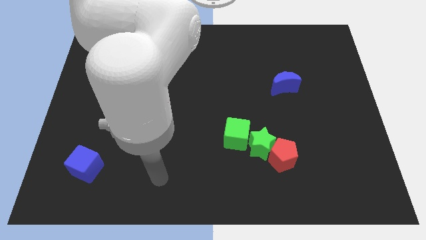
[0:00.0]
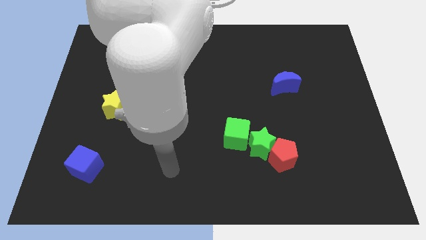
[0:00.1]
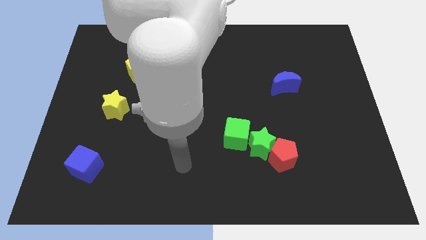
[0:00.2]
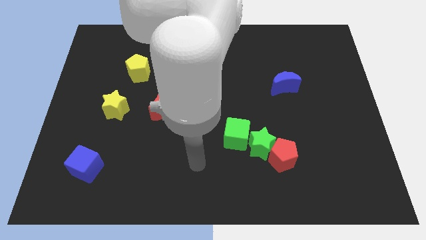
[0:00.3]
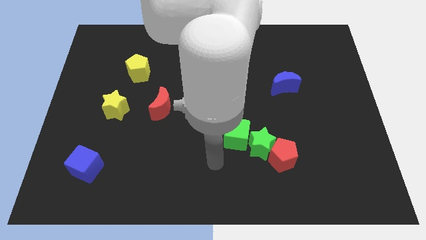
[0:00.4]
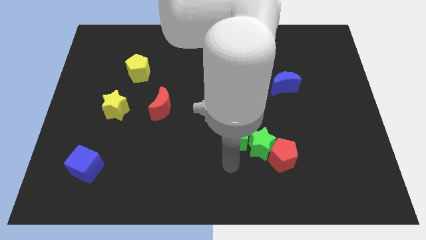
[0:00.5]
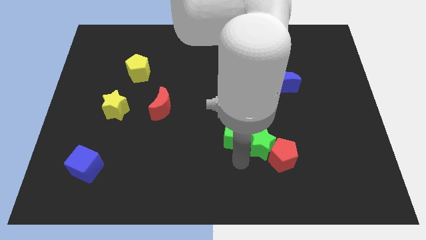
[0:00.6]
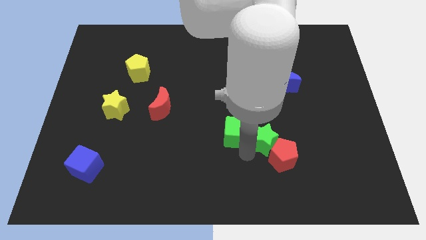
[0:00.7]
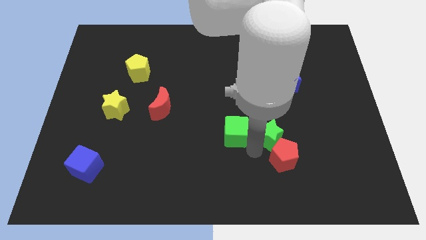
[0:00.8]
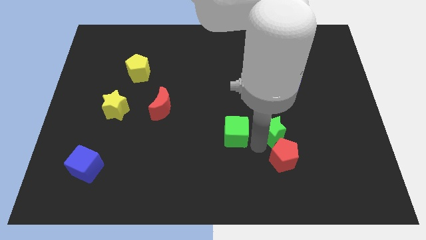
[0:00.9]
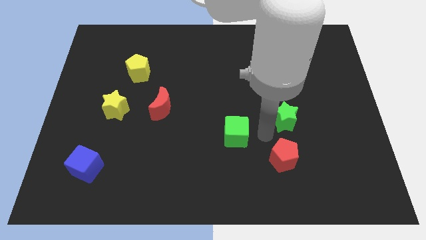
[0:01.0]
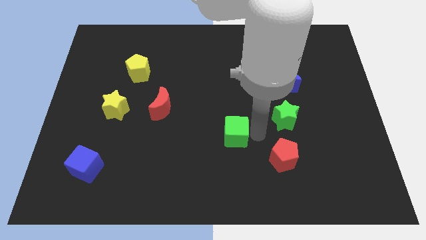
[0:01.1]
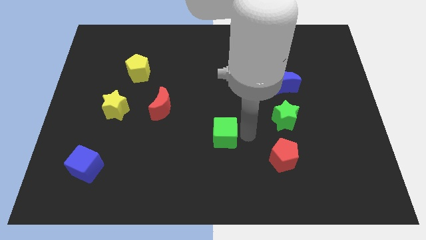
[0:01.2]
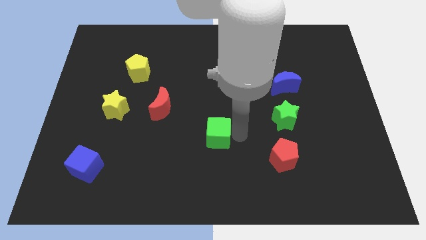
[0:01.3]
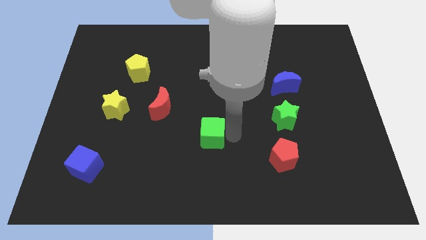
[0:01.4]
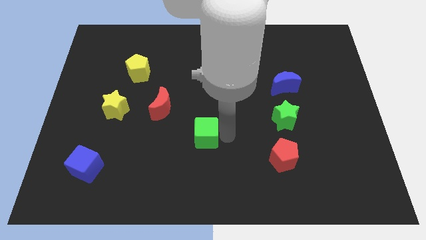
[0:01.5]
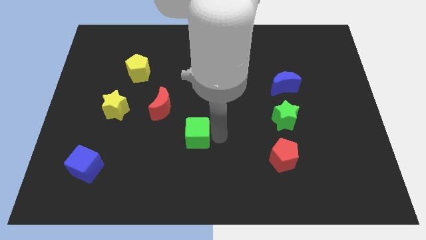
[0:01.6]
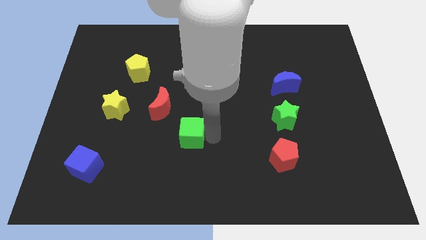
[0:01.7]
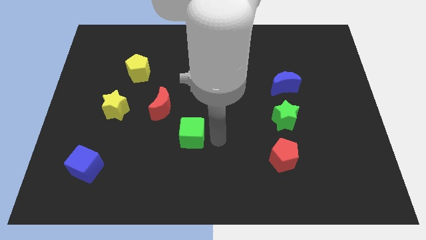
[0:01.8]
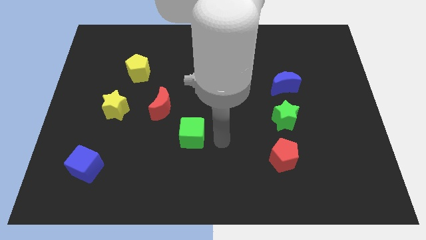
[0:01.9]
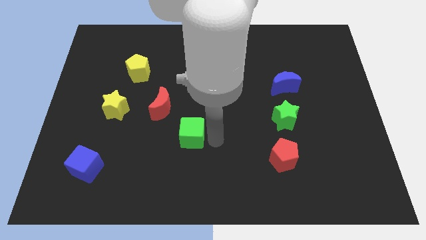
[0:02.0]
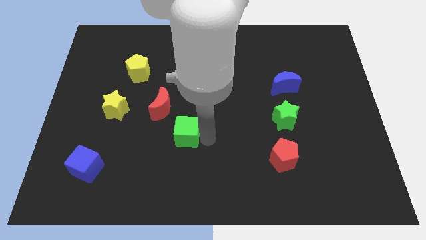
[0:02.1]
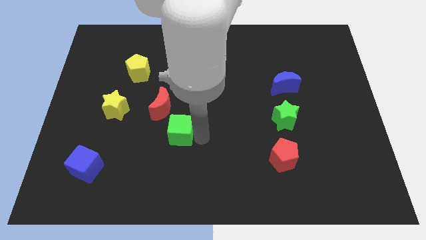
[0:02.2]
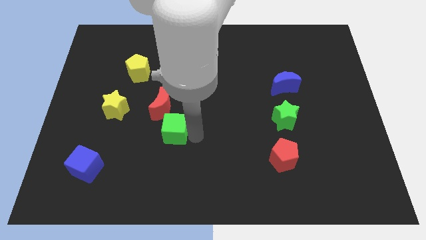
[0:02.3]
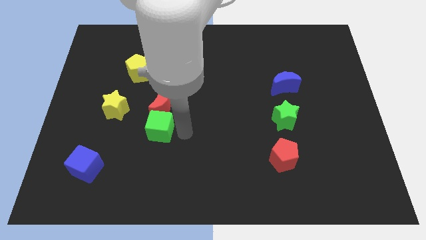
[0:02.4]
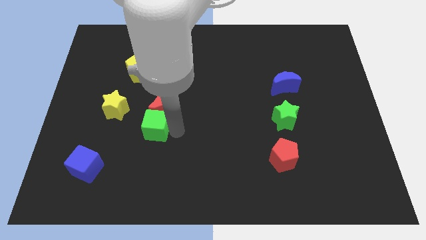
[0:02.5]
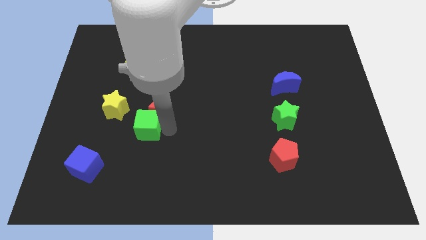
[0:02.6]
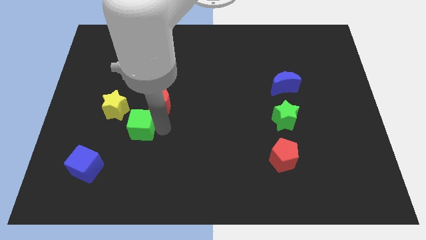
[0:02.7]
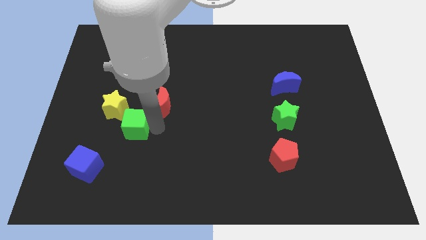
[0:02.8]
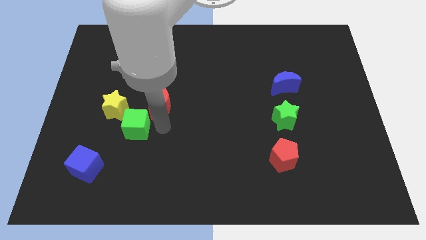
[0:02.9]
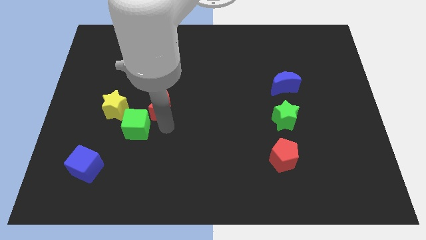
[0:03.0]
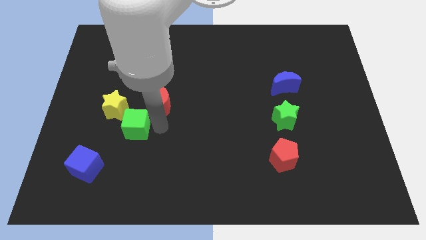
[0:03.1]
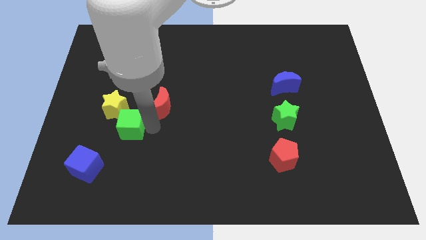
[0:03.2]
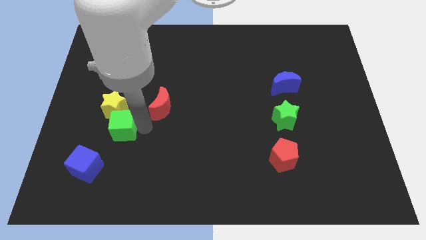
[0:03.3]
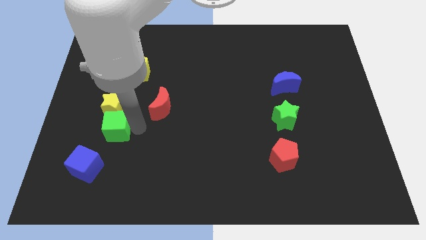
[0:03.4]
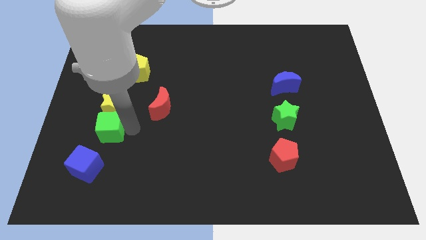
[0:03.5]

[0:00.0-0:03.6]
move the green cube to the bottom left of the yellow star

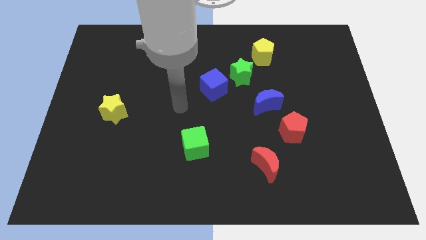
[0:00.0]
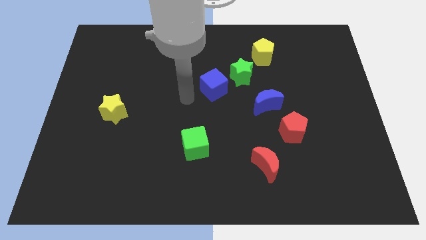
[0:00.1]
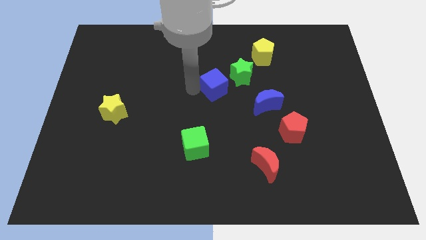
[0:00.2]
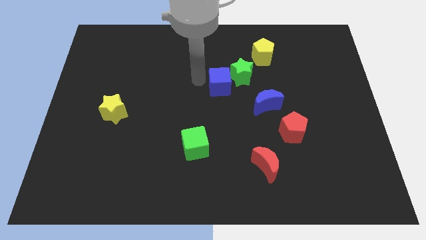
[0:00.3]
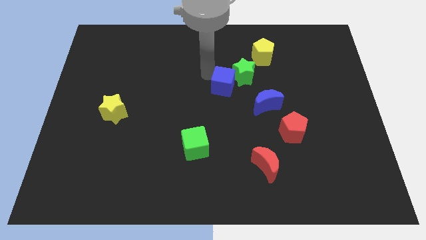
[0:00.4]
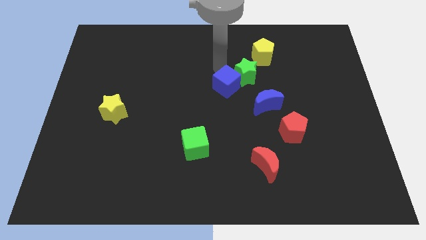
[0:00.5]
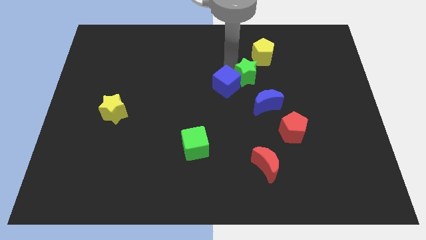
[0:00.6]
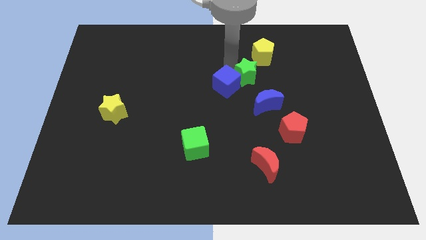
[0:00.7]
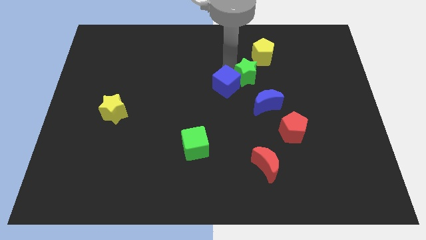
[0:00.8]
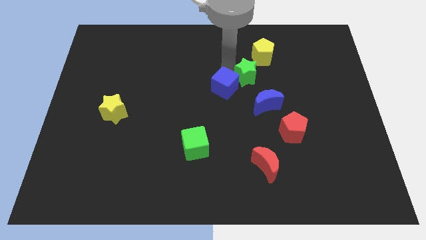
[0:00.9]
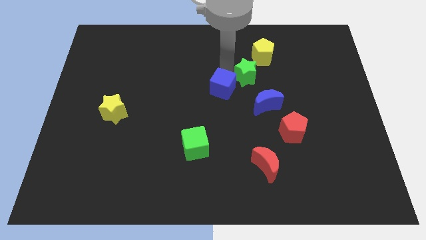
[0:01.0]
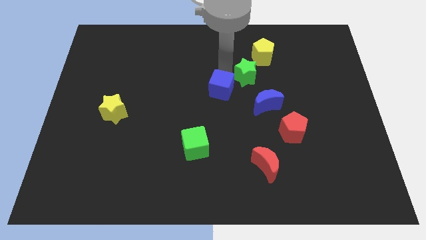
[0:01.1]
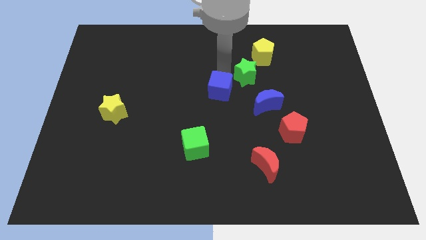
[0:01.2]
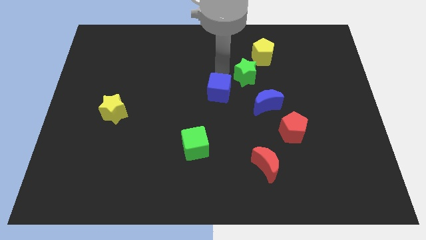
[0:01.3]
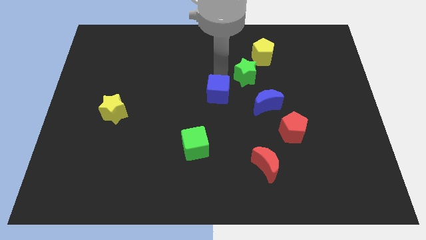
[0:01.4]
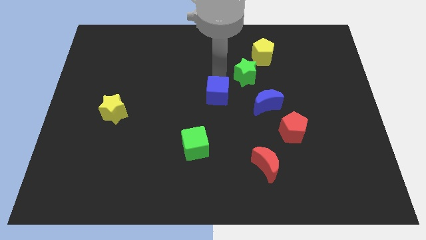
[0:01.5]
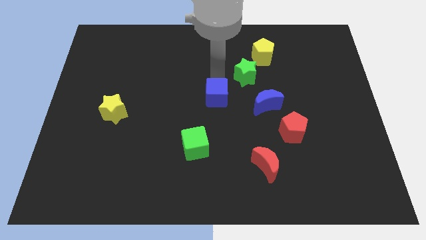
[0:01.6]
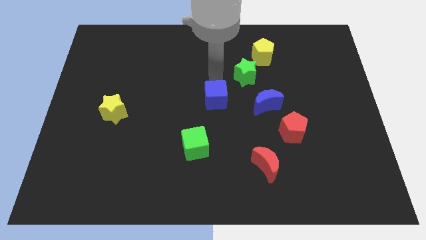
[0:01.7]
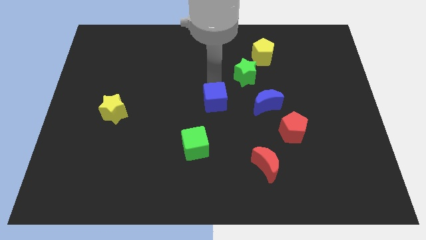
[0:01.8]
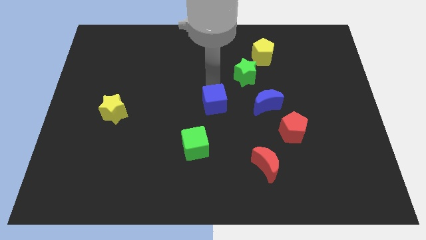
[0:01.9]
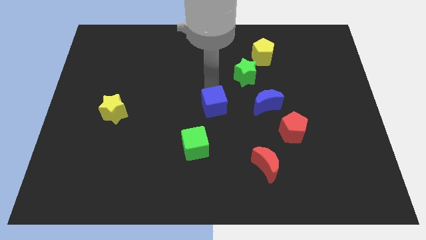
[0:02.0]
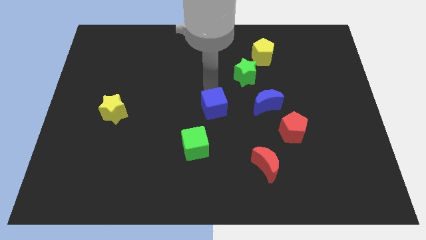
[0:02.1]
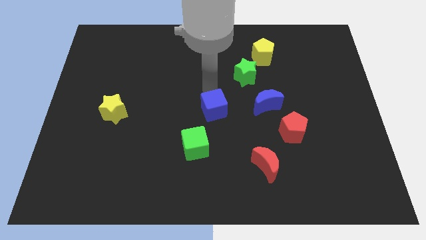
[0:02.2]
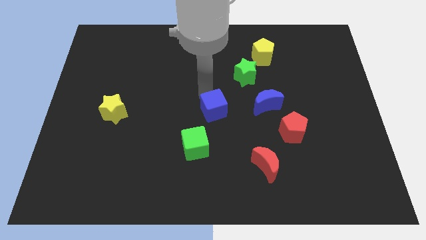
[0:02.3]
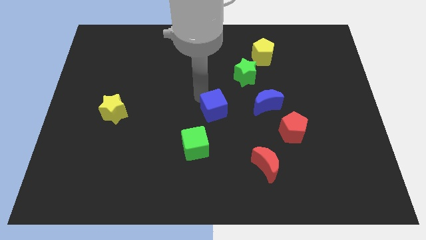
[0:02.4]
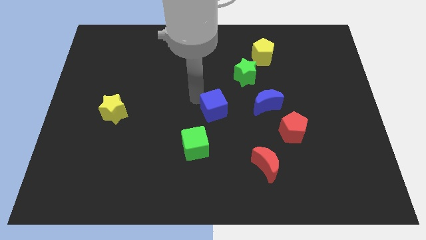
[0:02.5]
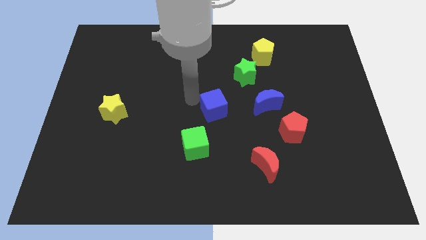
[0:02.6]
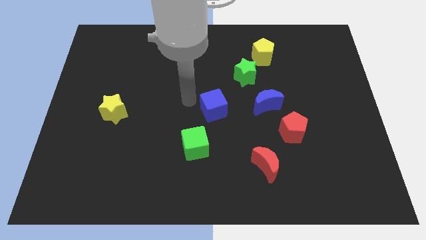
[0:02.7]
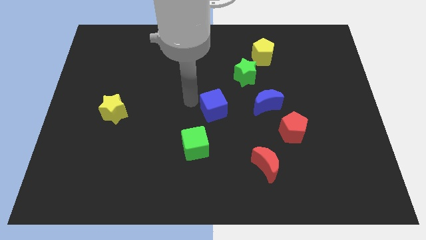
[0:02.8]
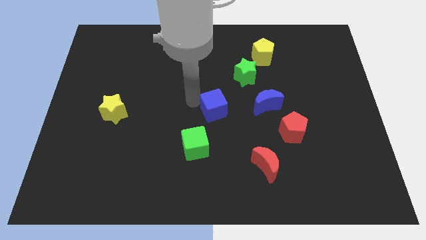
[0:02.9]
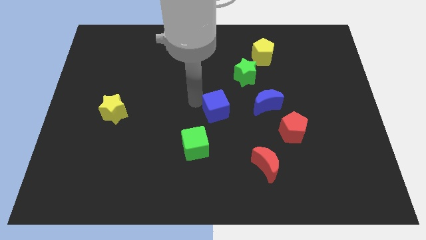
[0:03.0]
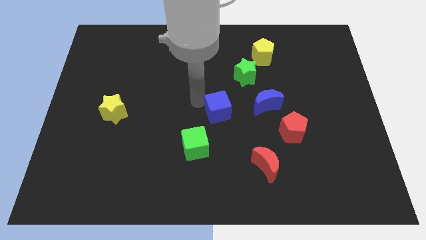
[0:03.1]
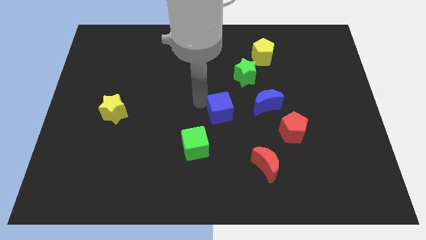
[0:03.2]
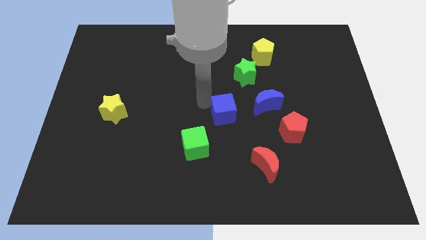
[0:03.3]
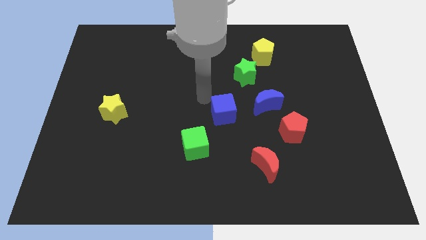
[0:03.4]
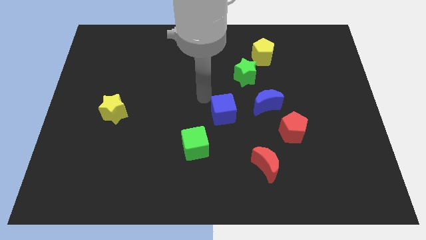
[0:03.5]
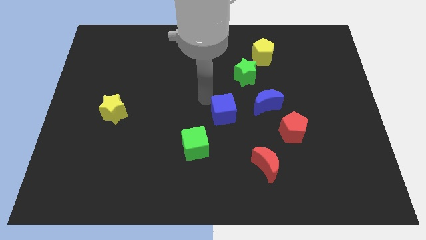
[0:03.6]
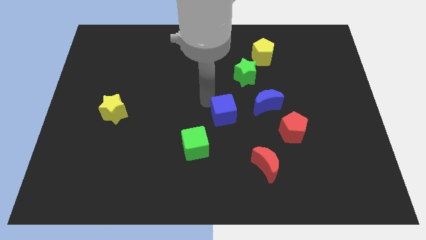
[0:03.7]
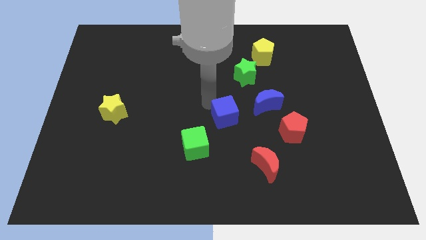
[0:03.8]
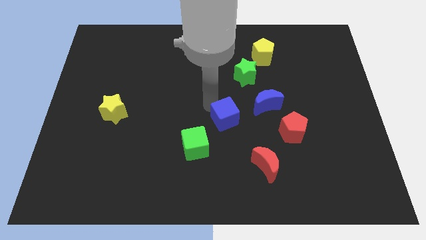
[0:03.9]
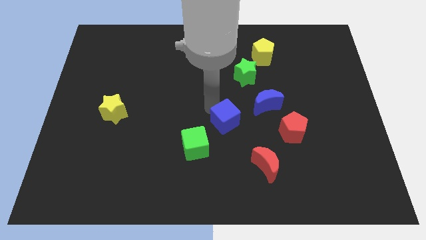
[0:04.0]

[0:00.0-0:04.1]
put the blue cube just left of the red pentagon
